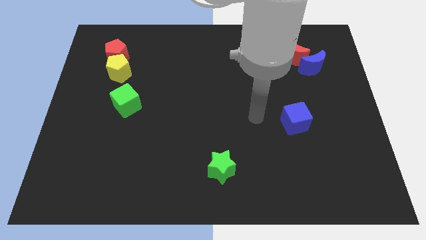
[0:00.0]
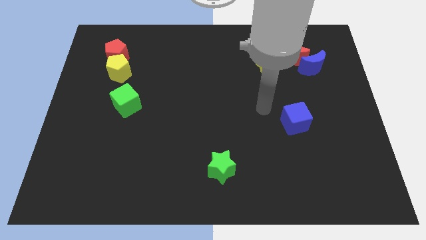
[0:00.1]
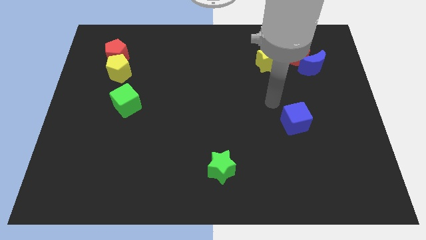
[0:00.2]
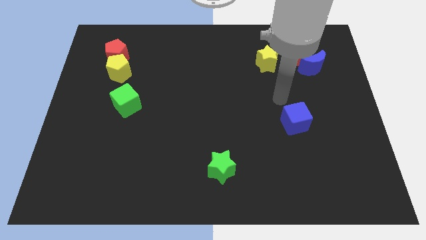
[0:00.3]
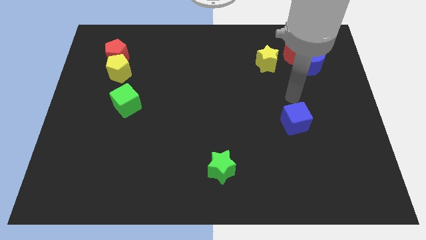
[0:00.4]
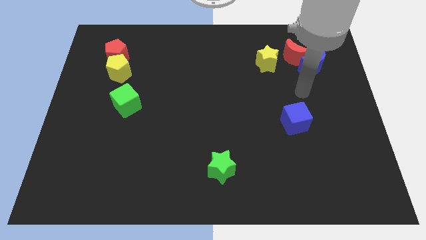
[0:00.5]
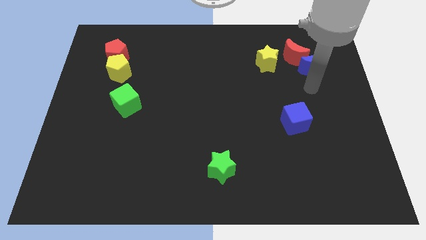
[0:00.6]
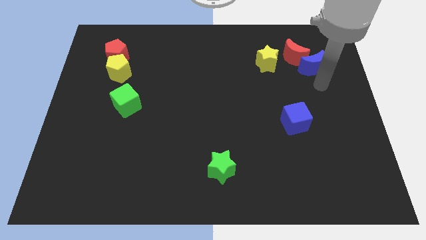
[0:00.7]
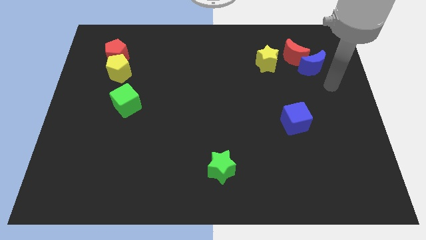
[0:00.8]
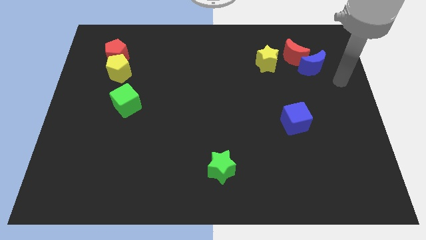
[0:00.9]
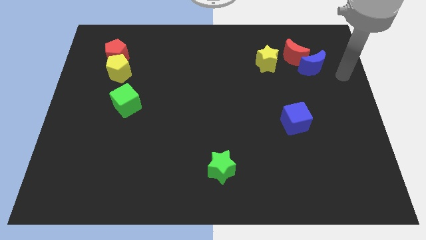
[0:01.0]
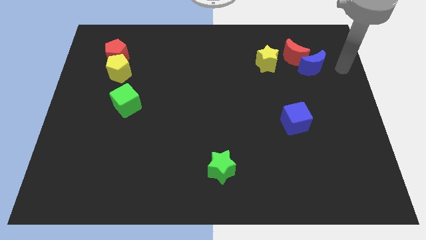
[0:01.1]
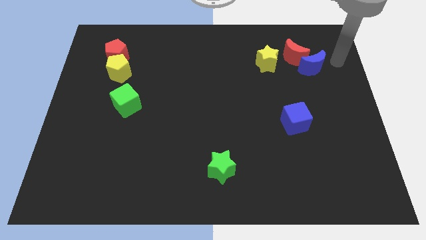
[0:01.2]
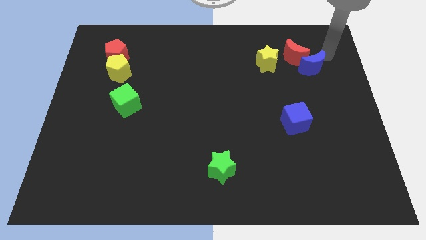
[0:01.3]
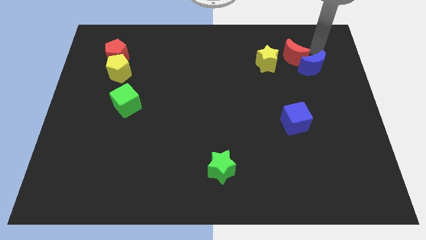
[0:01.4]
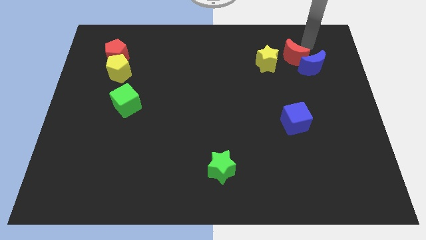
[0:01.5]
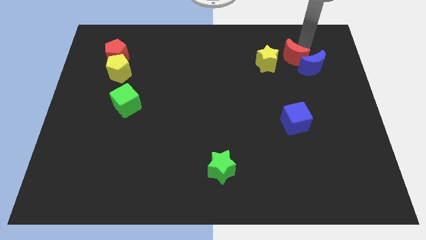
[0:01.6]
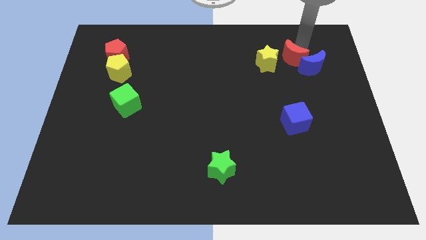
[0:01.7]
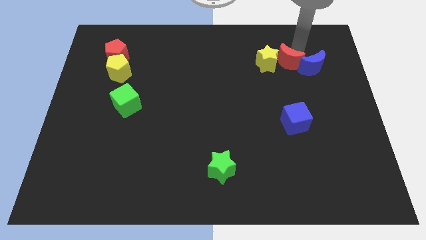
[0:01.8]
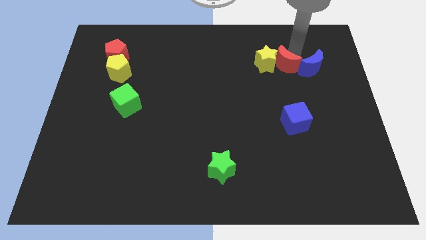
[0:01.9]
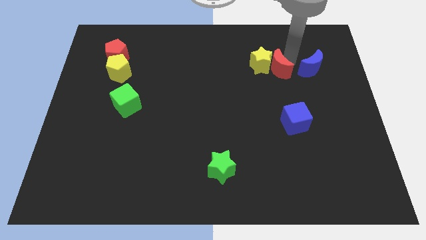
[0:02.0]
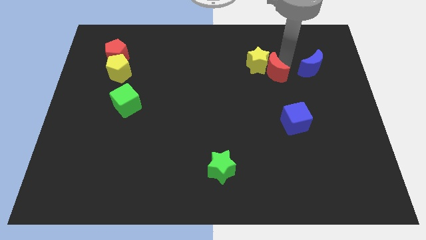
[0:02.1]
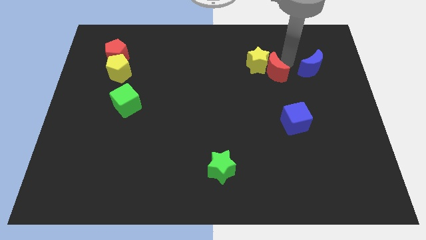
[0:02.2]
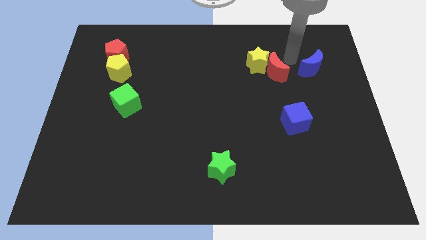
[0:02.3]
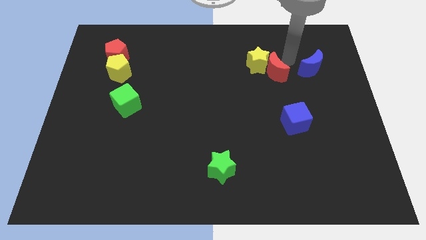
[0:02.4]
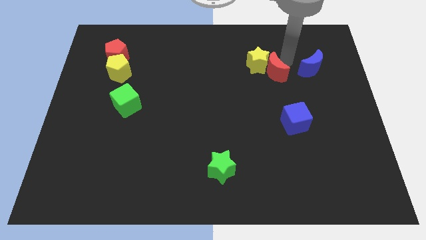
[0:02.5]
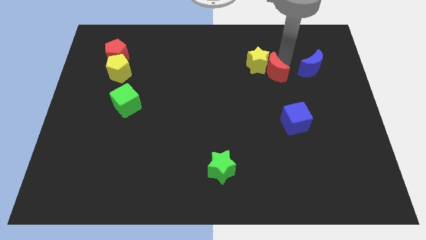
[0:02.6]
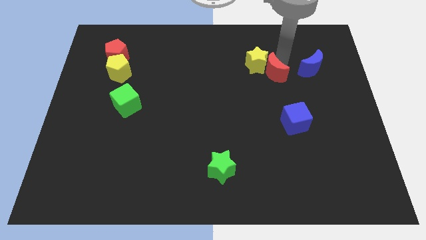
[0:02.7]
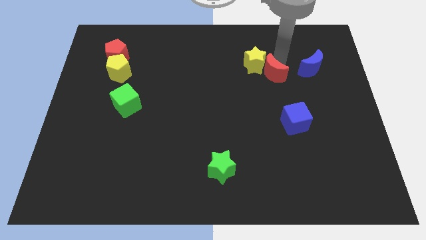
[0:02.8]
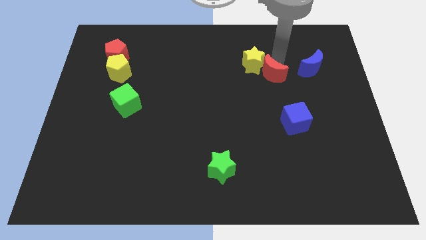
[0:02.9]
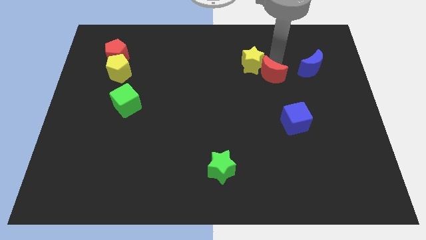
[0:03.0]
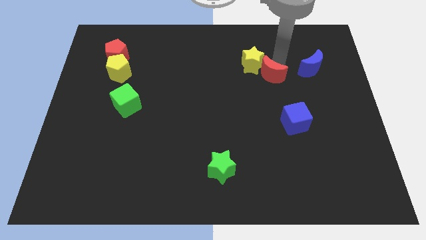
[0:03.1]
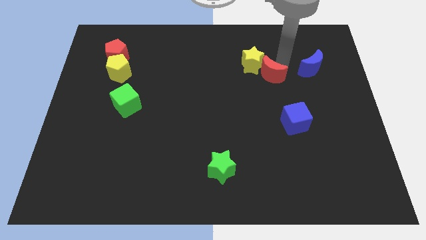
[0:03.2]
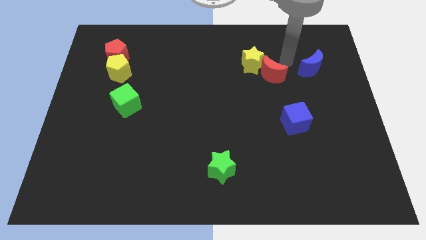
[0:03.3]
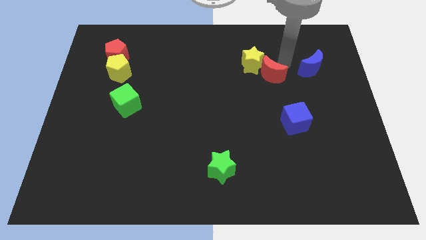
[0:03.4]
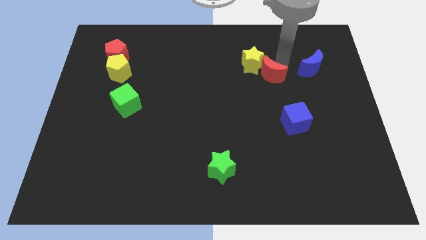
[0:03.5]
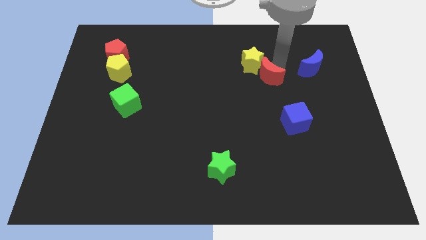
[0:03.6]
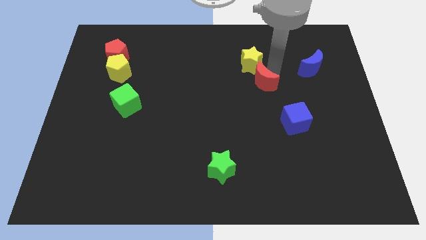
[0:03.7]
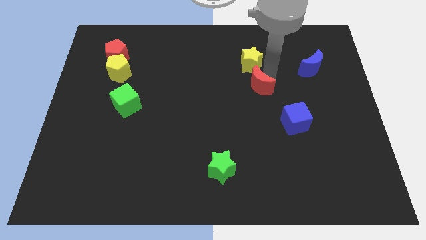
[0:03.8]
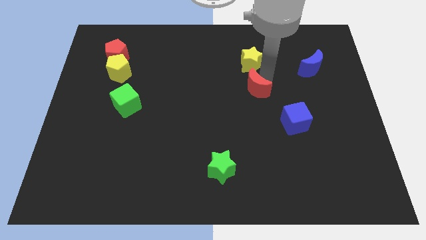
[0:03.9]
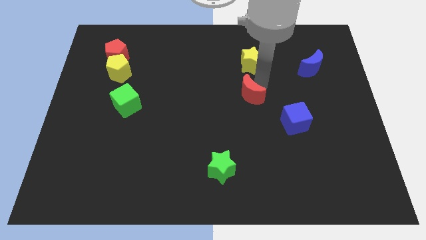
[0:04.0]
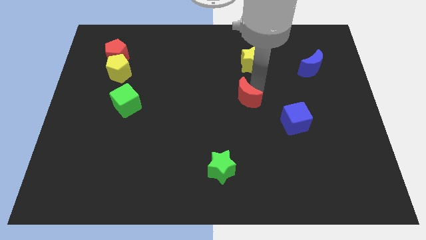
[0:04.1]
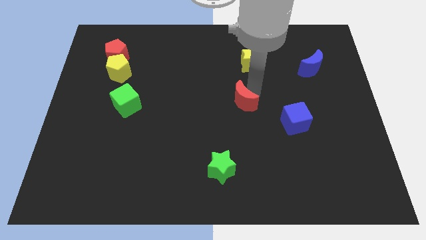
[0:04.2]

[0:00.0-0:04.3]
move the red moon down and to the left

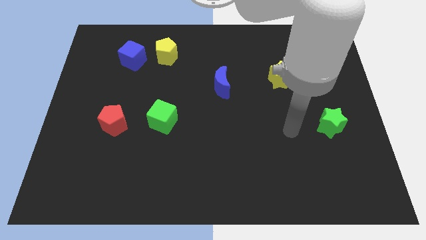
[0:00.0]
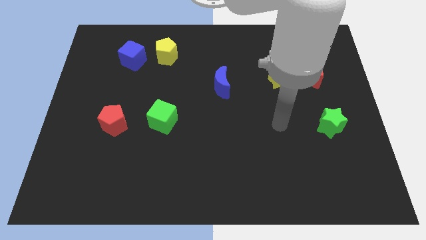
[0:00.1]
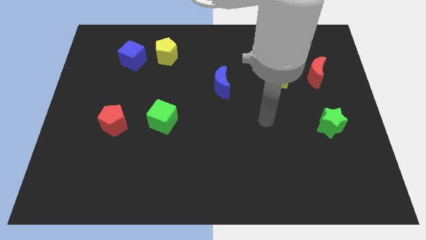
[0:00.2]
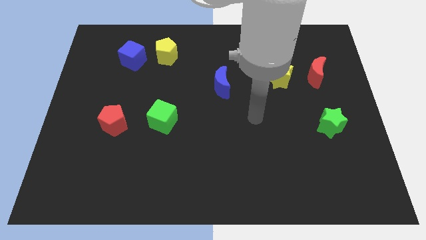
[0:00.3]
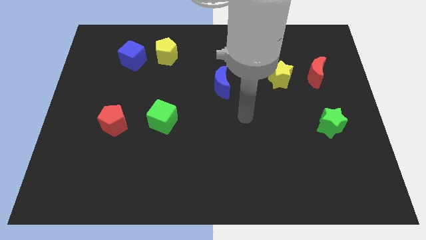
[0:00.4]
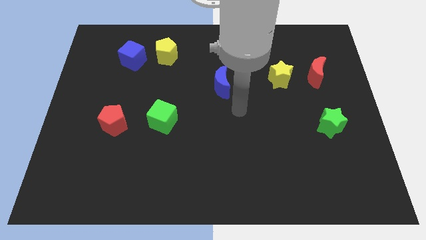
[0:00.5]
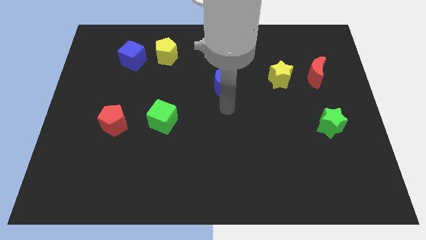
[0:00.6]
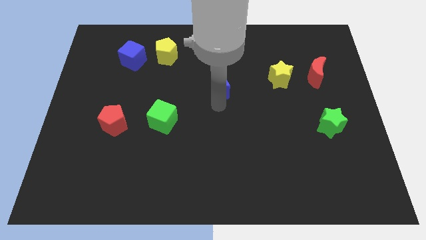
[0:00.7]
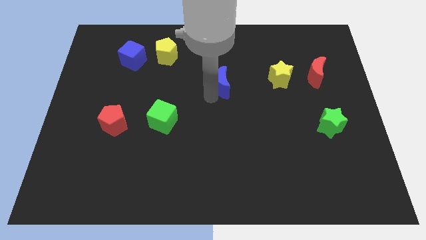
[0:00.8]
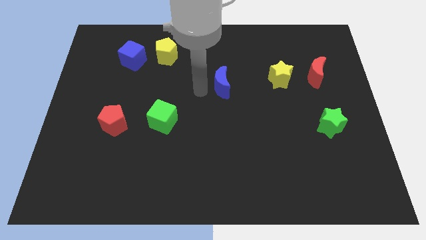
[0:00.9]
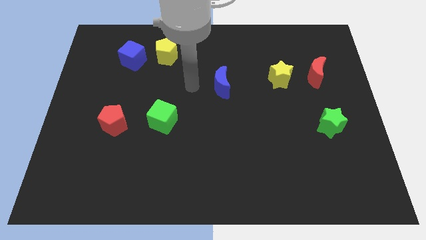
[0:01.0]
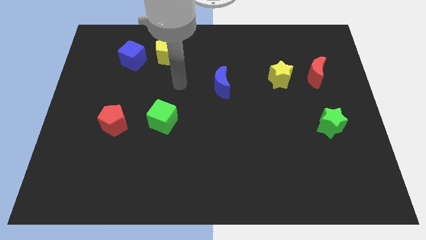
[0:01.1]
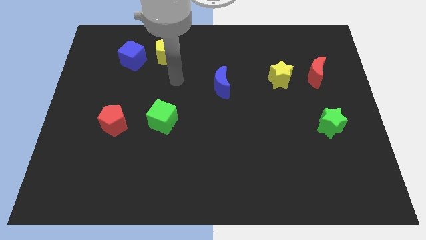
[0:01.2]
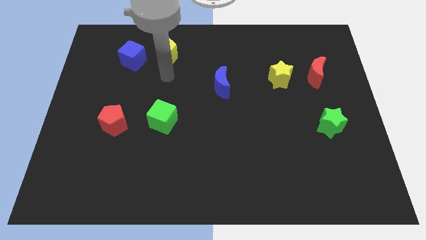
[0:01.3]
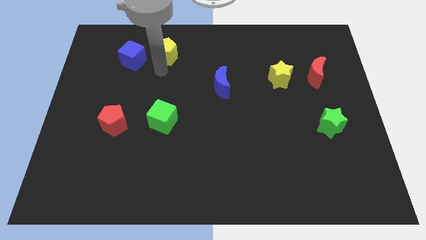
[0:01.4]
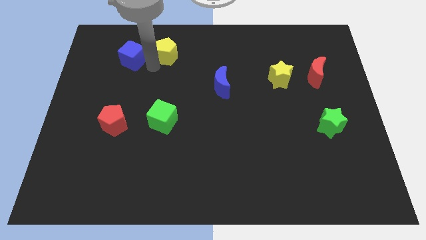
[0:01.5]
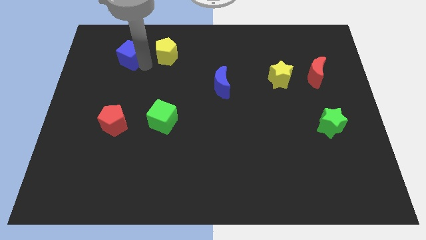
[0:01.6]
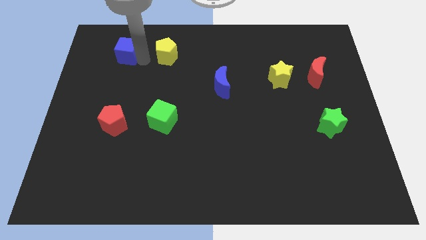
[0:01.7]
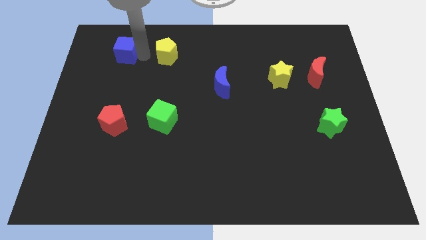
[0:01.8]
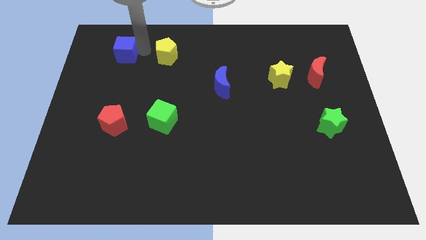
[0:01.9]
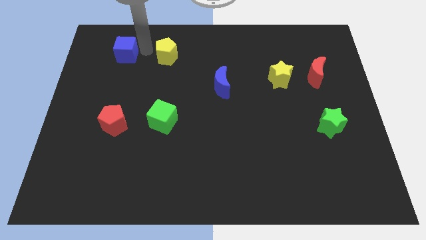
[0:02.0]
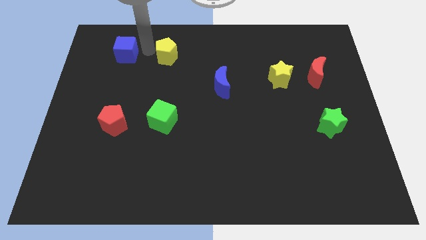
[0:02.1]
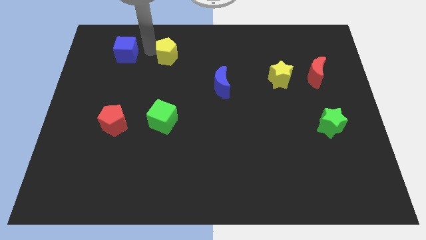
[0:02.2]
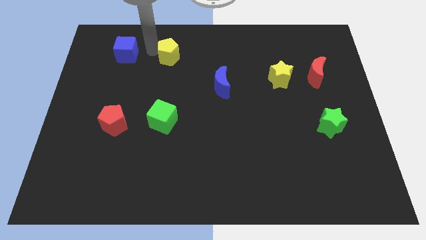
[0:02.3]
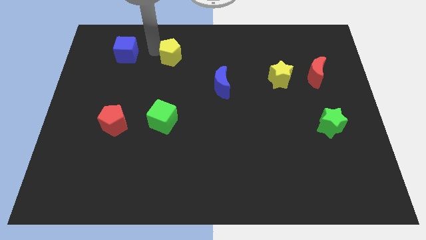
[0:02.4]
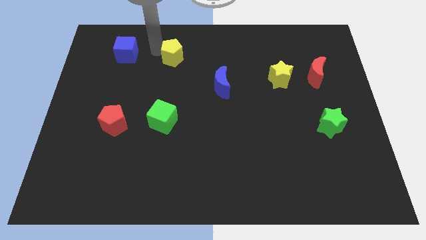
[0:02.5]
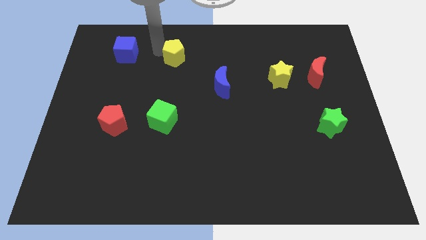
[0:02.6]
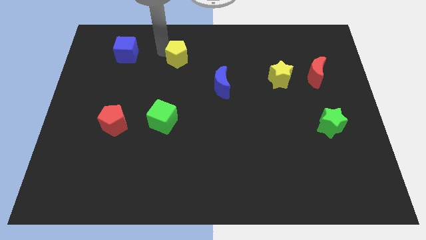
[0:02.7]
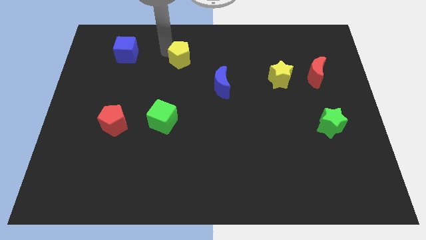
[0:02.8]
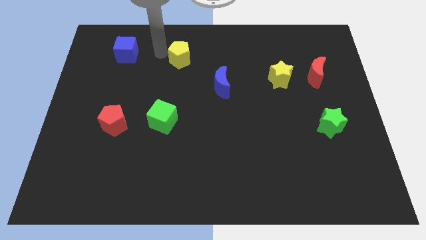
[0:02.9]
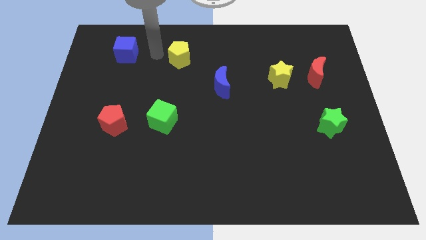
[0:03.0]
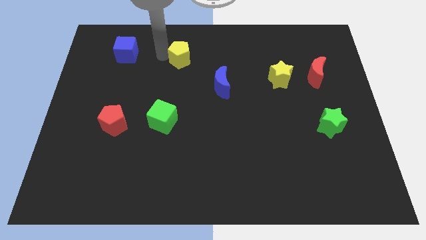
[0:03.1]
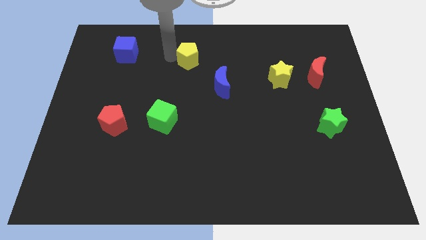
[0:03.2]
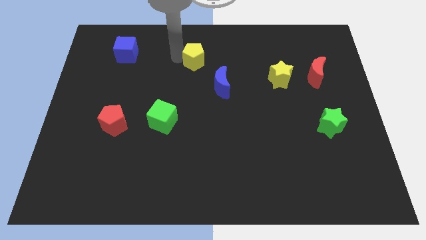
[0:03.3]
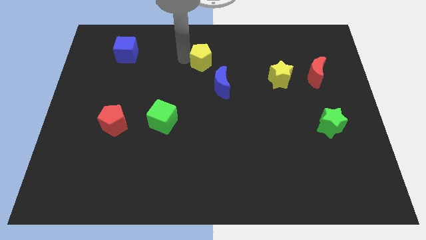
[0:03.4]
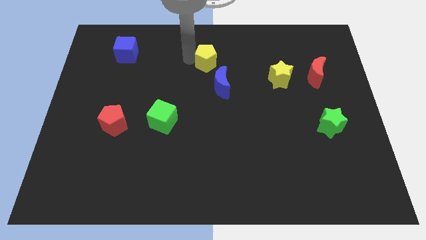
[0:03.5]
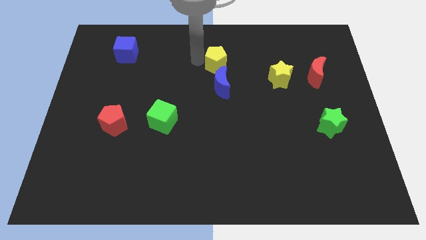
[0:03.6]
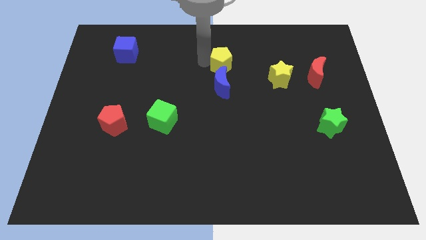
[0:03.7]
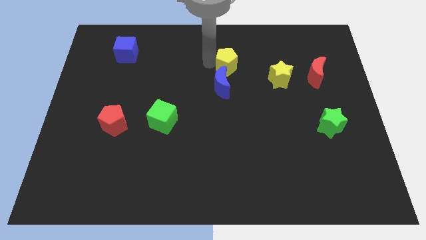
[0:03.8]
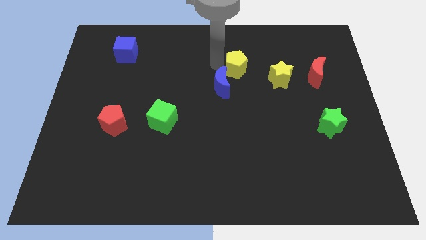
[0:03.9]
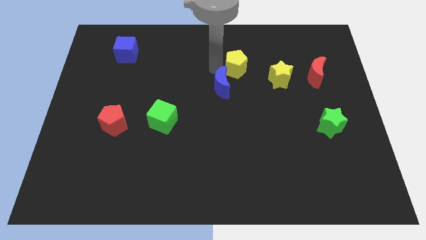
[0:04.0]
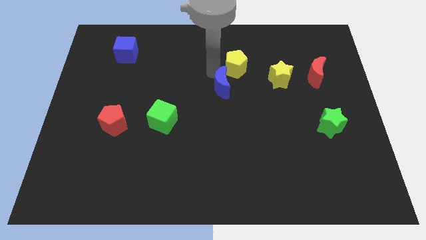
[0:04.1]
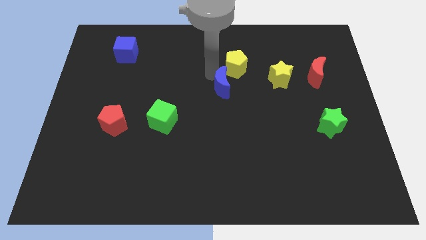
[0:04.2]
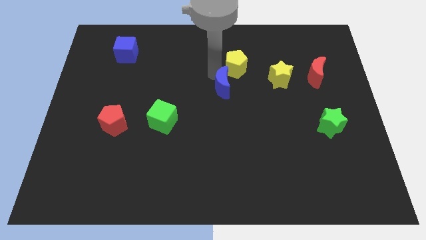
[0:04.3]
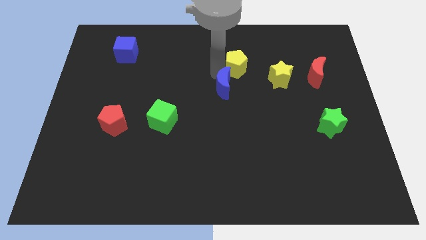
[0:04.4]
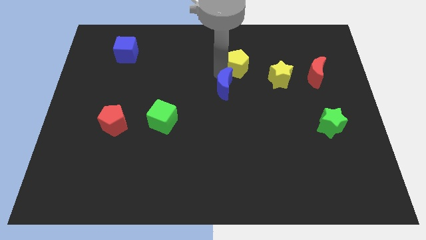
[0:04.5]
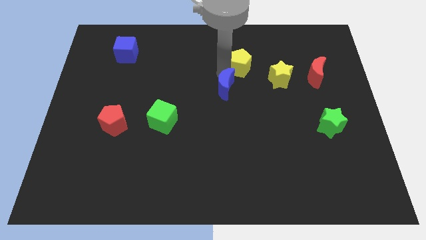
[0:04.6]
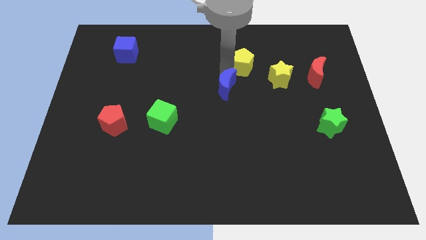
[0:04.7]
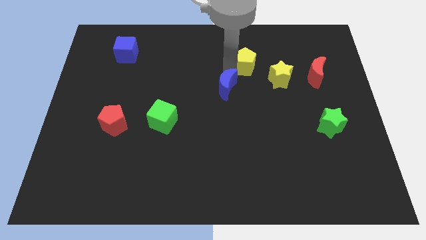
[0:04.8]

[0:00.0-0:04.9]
move the yellow pentagon right
